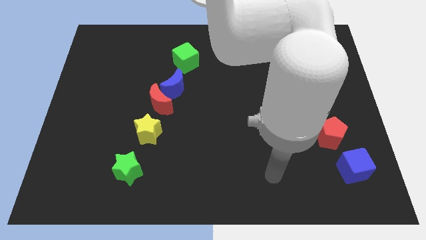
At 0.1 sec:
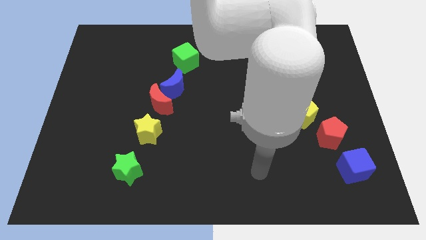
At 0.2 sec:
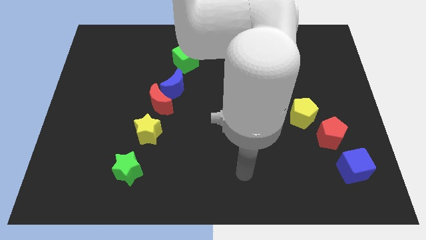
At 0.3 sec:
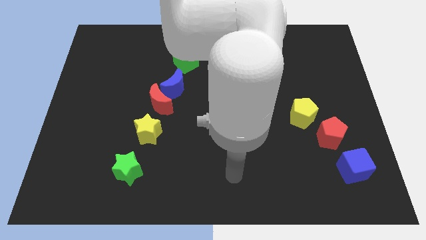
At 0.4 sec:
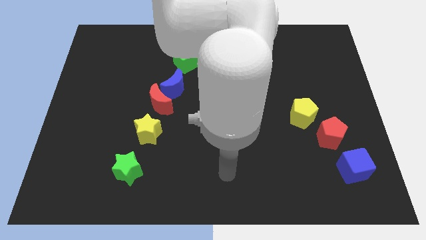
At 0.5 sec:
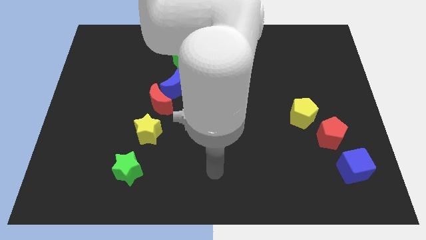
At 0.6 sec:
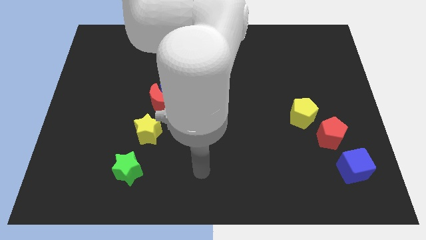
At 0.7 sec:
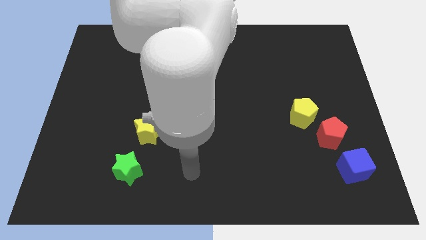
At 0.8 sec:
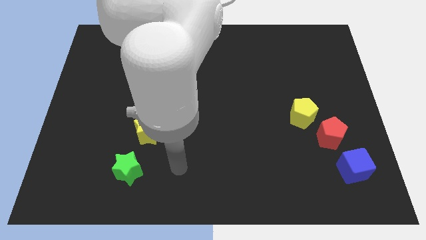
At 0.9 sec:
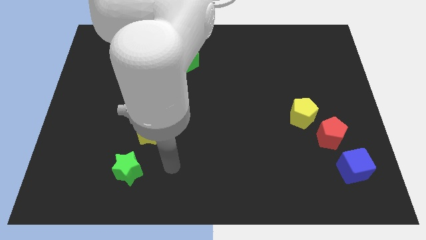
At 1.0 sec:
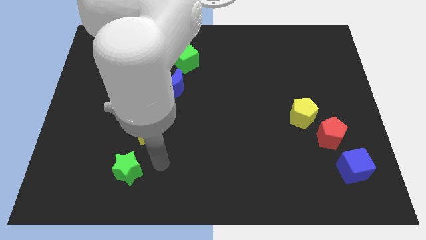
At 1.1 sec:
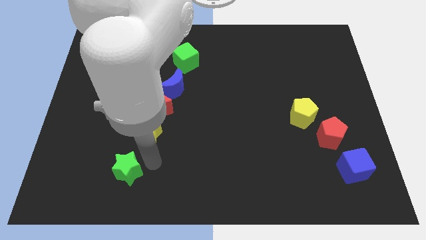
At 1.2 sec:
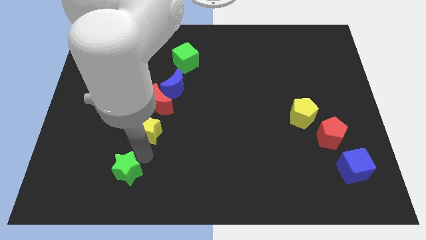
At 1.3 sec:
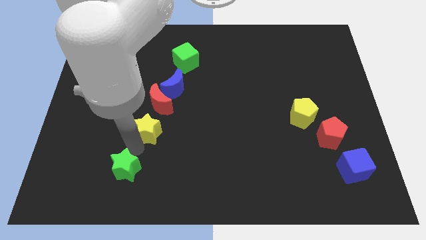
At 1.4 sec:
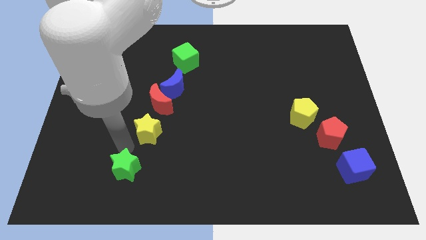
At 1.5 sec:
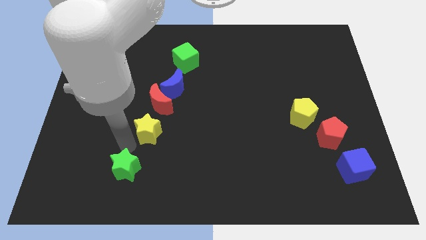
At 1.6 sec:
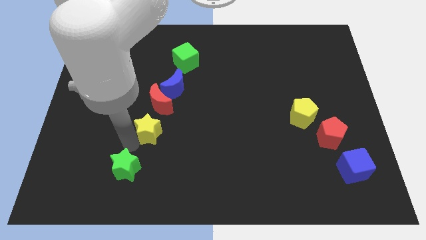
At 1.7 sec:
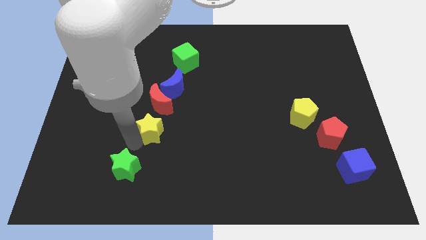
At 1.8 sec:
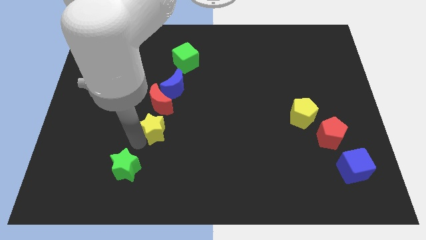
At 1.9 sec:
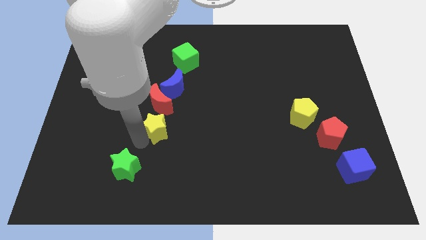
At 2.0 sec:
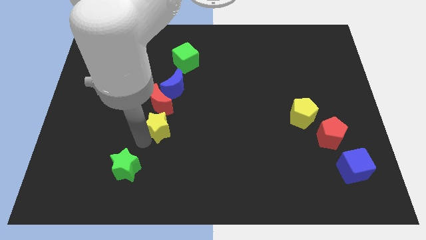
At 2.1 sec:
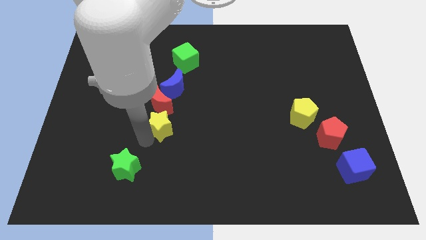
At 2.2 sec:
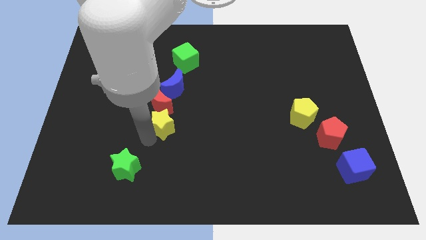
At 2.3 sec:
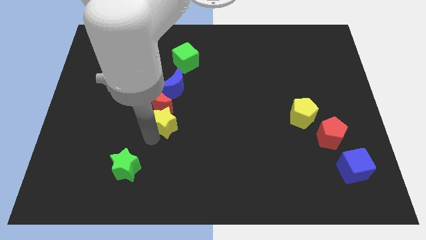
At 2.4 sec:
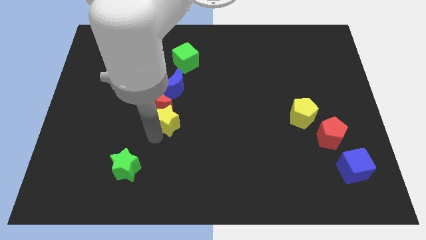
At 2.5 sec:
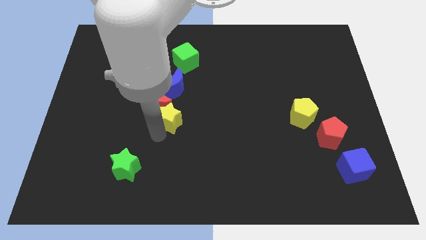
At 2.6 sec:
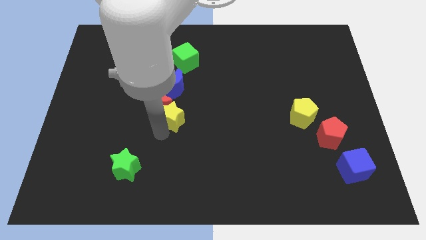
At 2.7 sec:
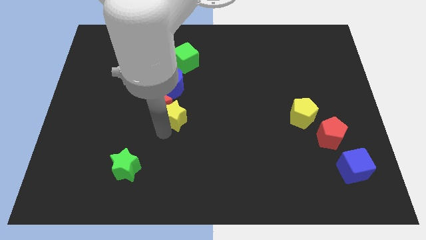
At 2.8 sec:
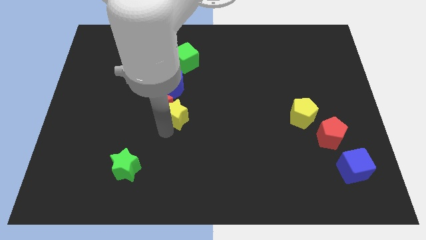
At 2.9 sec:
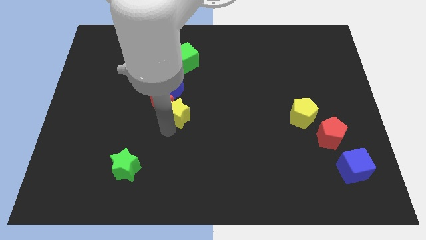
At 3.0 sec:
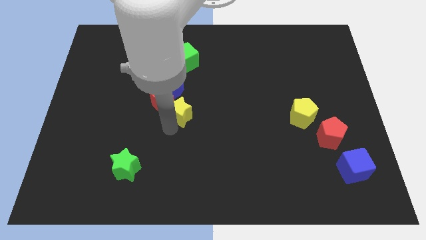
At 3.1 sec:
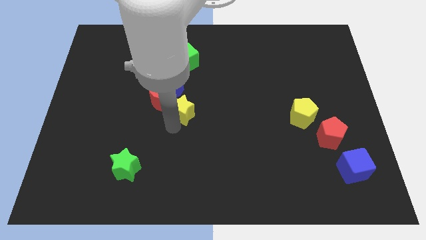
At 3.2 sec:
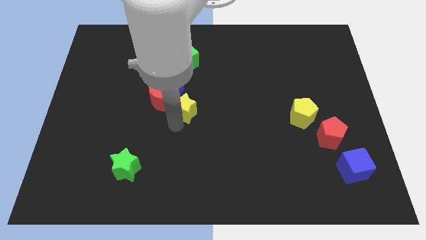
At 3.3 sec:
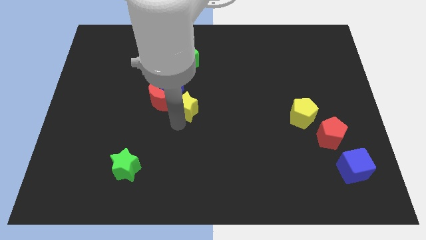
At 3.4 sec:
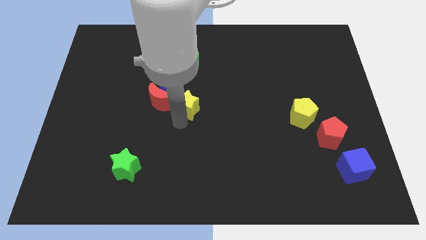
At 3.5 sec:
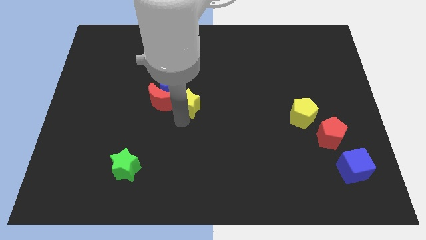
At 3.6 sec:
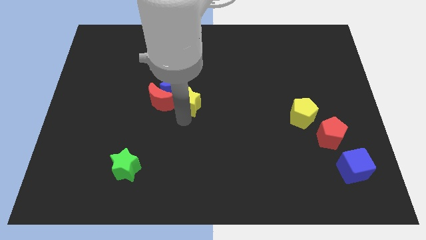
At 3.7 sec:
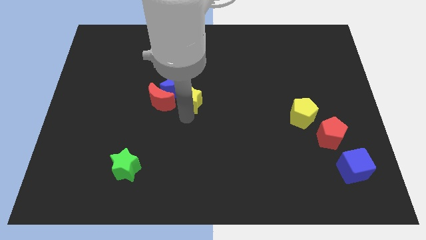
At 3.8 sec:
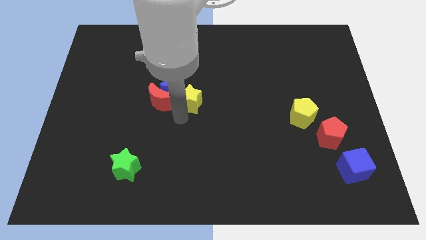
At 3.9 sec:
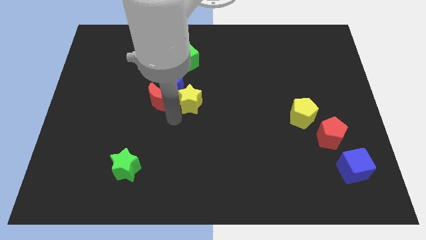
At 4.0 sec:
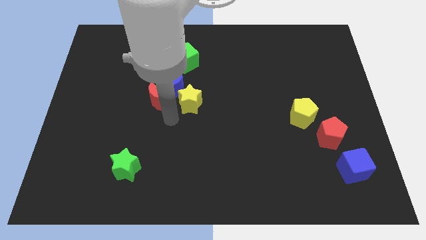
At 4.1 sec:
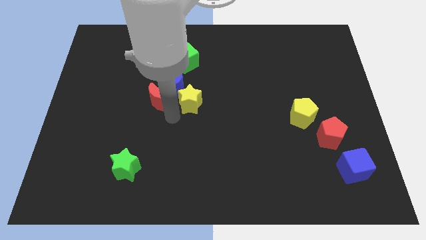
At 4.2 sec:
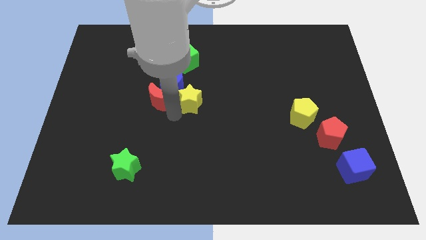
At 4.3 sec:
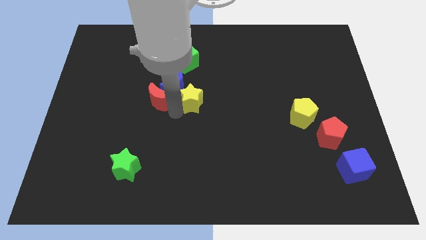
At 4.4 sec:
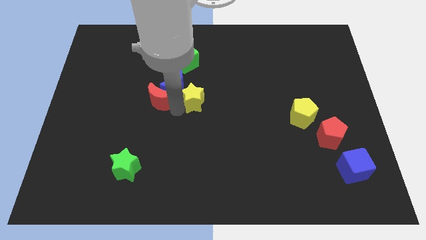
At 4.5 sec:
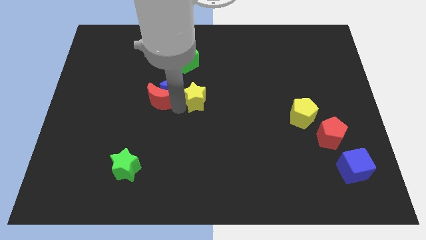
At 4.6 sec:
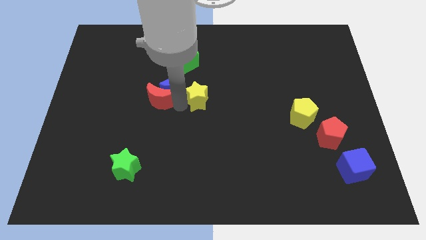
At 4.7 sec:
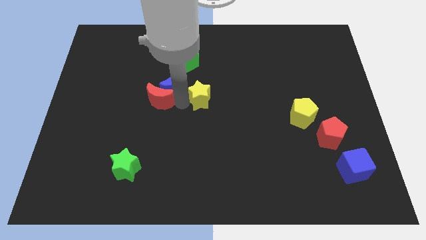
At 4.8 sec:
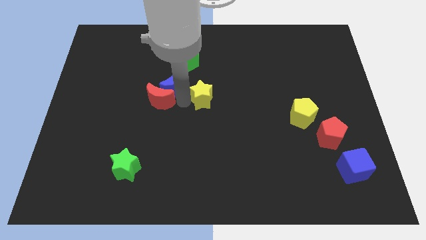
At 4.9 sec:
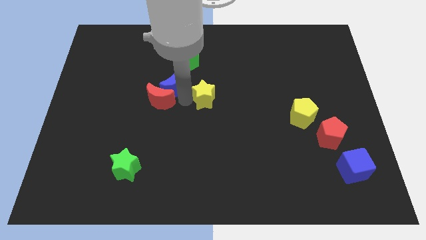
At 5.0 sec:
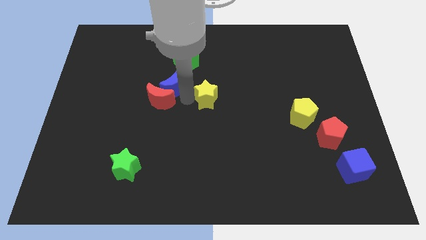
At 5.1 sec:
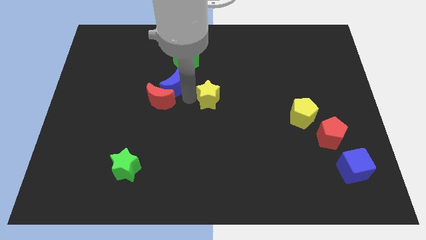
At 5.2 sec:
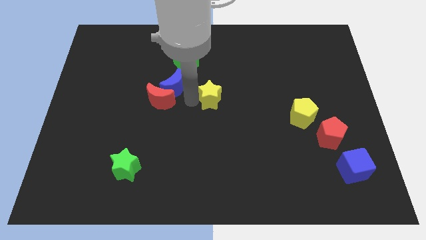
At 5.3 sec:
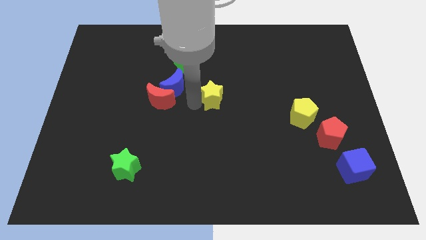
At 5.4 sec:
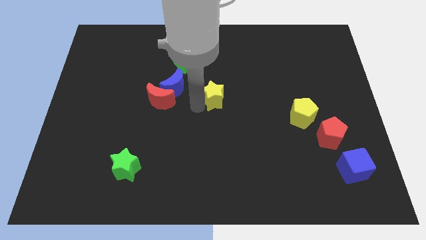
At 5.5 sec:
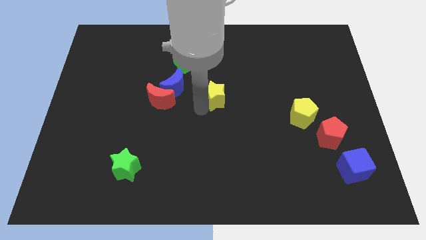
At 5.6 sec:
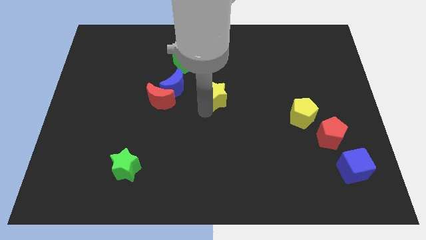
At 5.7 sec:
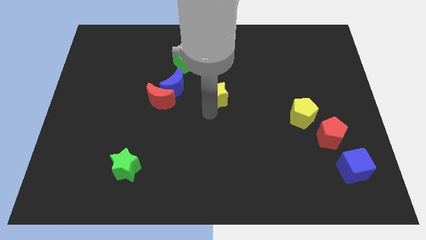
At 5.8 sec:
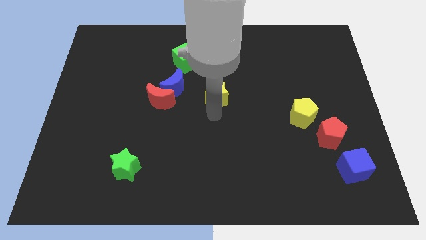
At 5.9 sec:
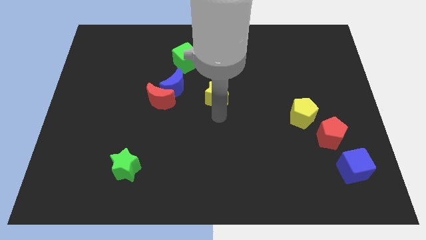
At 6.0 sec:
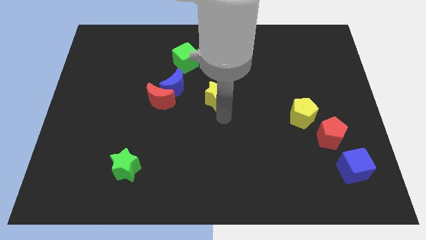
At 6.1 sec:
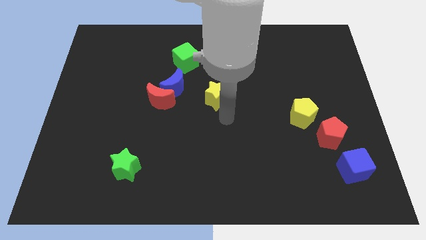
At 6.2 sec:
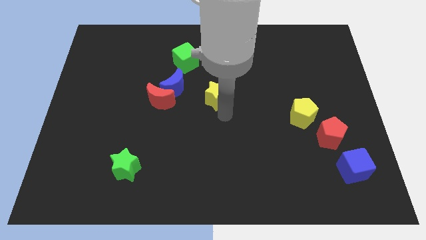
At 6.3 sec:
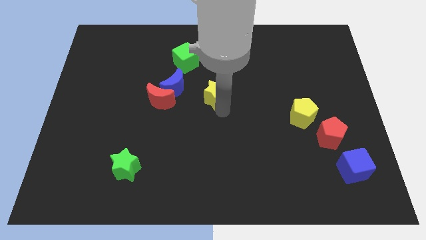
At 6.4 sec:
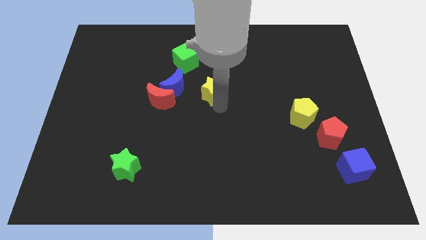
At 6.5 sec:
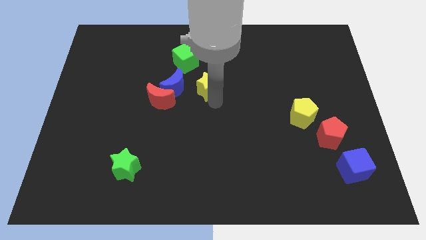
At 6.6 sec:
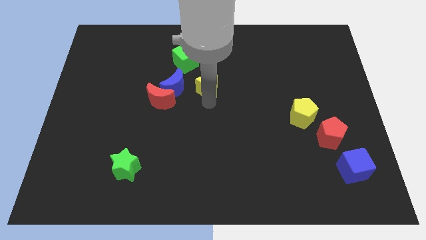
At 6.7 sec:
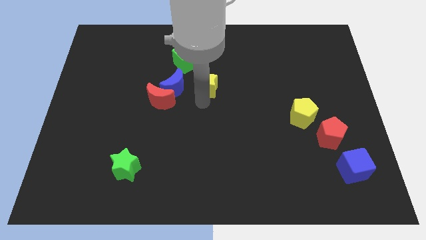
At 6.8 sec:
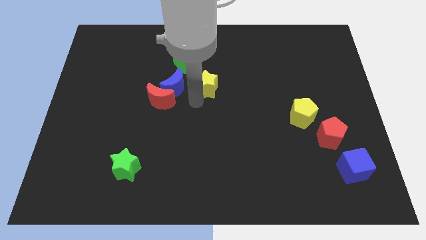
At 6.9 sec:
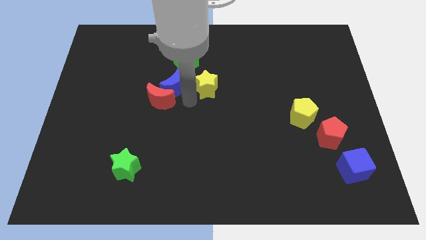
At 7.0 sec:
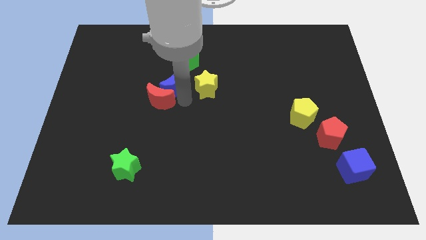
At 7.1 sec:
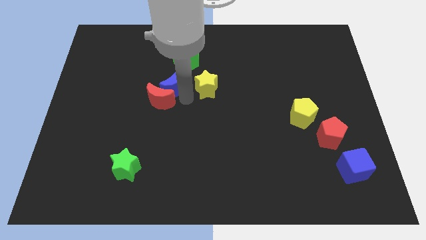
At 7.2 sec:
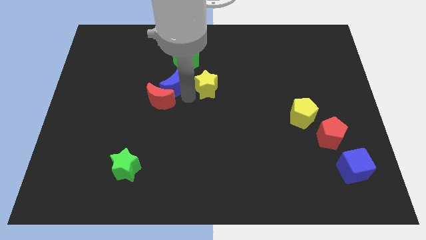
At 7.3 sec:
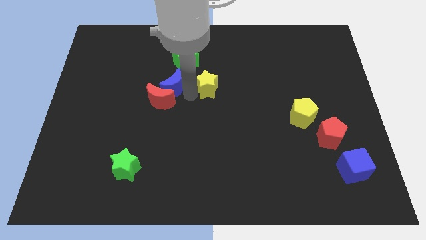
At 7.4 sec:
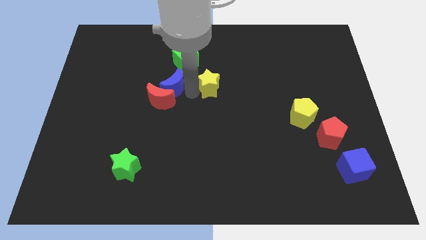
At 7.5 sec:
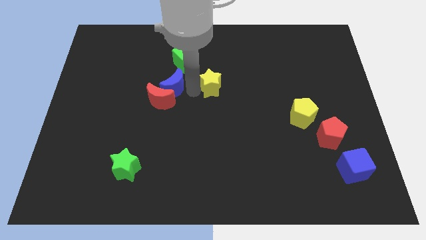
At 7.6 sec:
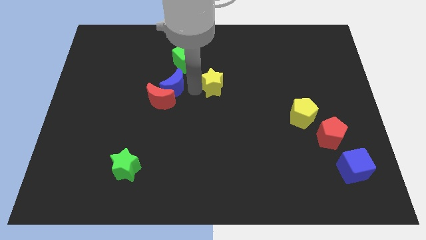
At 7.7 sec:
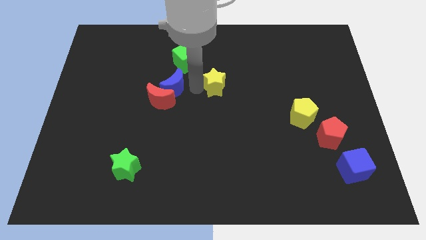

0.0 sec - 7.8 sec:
slide the yellow star up and then to the right
